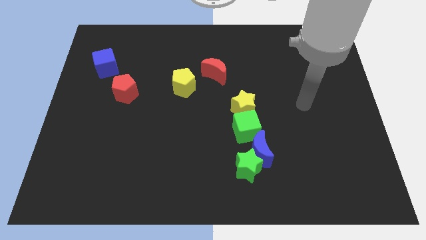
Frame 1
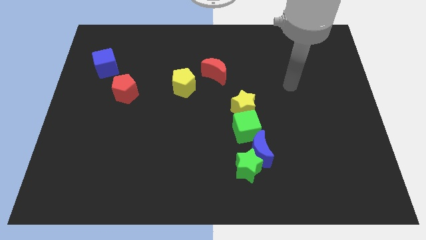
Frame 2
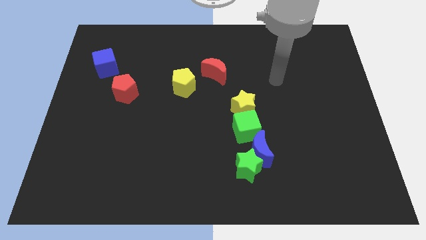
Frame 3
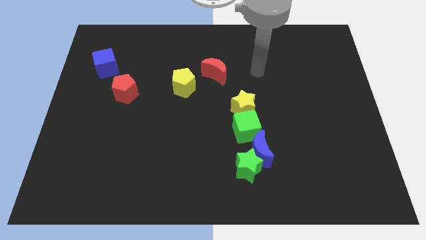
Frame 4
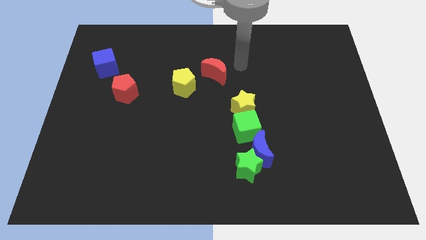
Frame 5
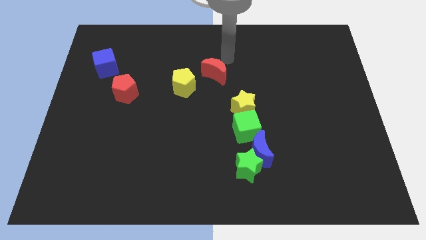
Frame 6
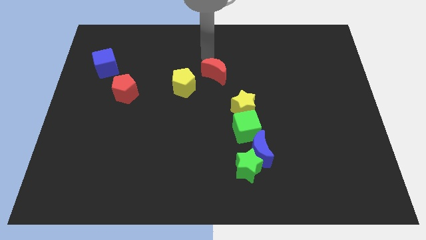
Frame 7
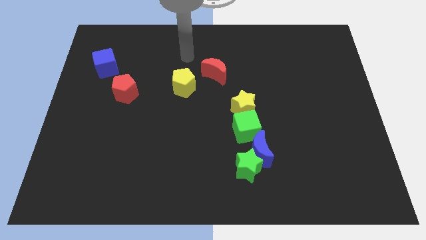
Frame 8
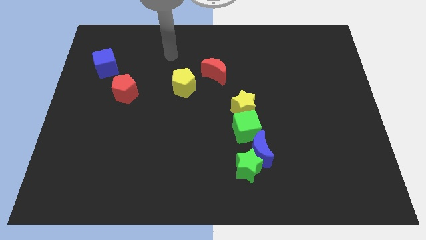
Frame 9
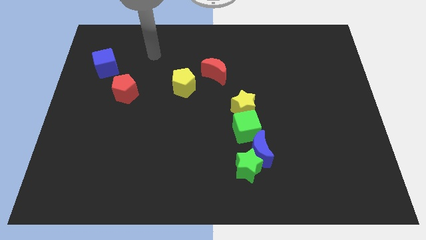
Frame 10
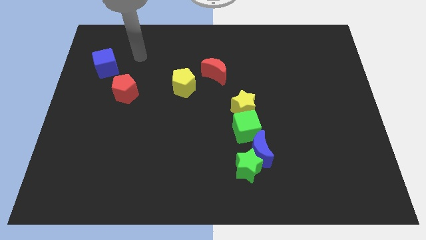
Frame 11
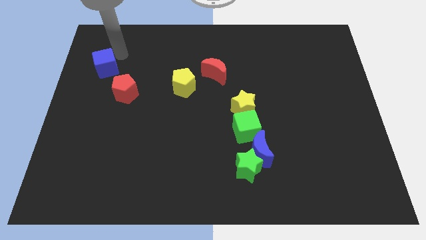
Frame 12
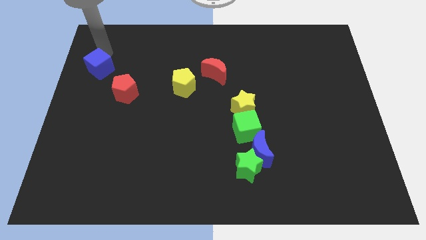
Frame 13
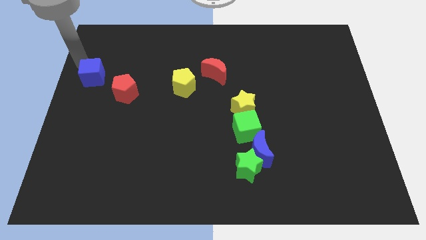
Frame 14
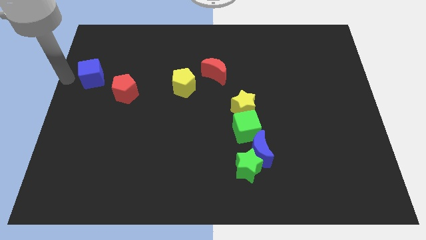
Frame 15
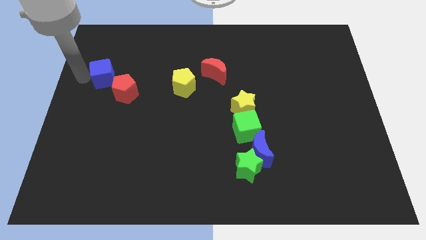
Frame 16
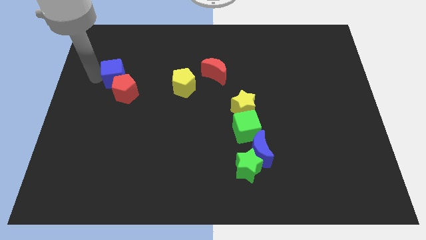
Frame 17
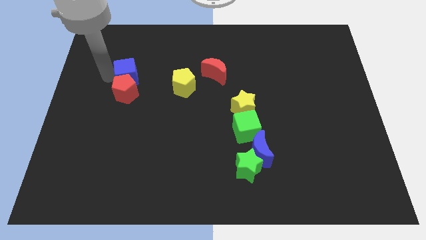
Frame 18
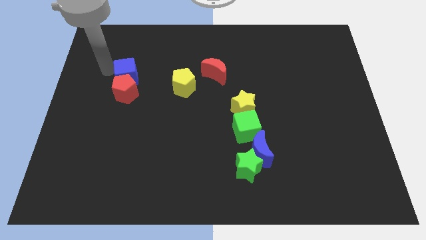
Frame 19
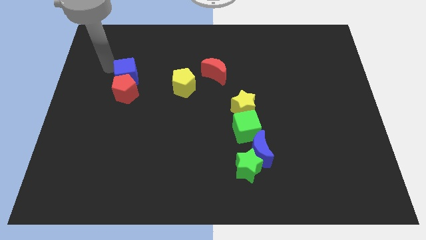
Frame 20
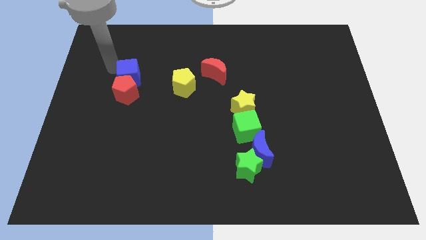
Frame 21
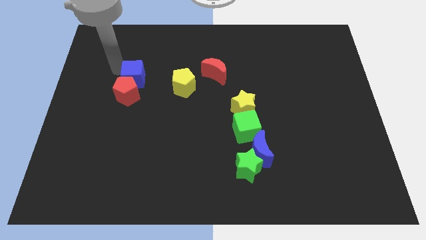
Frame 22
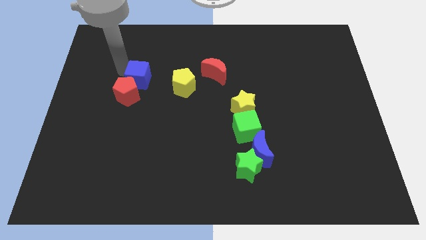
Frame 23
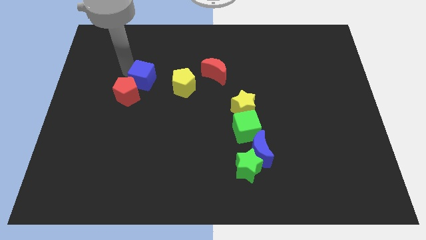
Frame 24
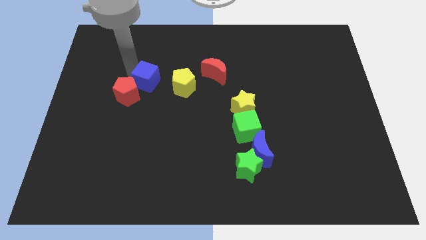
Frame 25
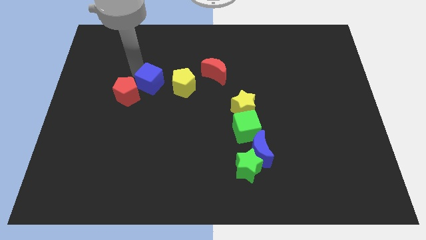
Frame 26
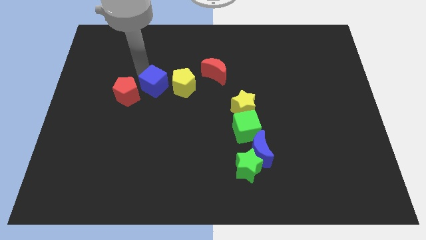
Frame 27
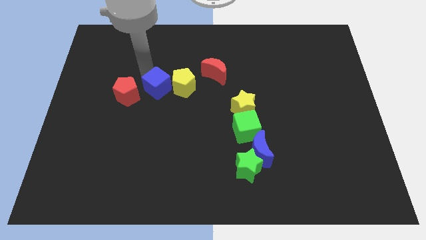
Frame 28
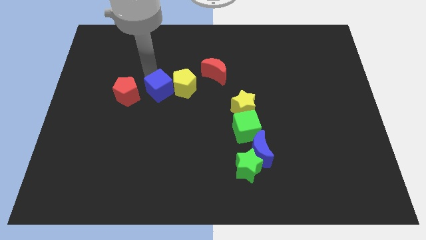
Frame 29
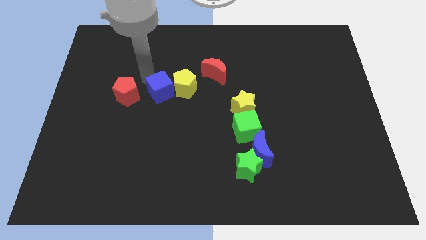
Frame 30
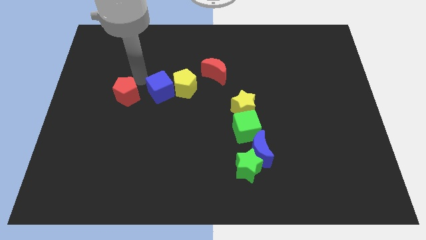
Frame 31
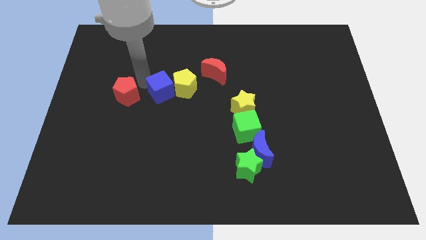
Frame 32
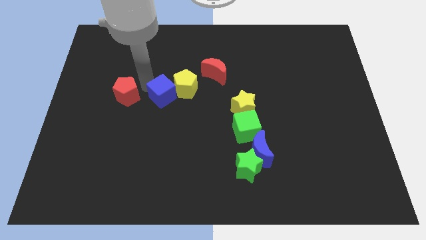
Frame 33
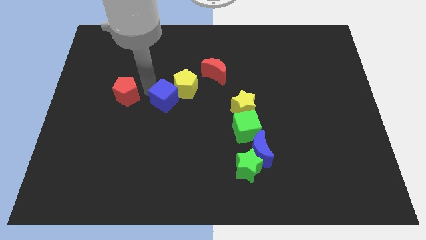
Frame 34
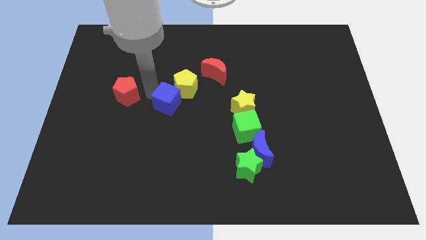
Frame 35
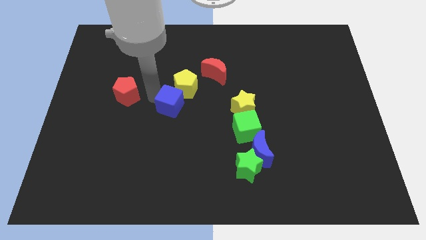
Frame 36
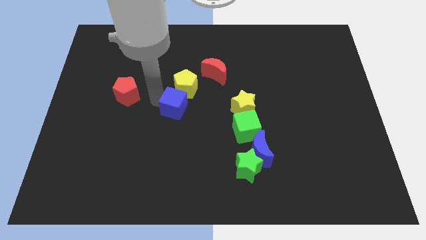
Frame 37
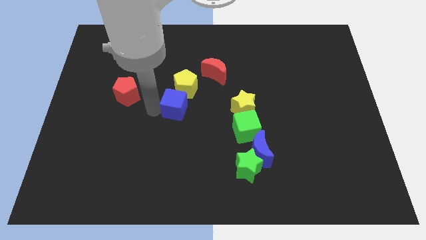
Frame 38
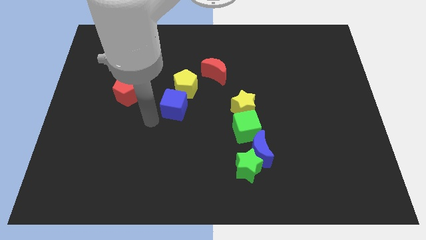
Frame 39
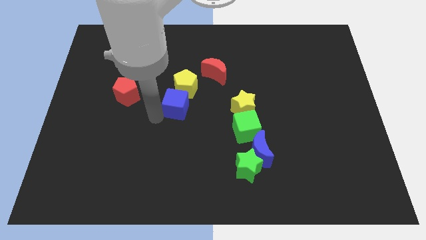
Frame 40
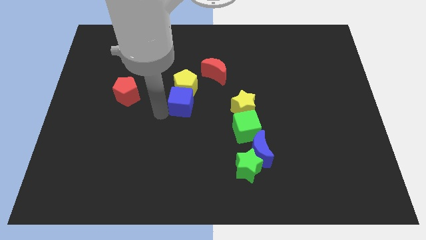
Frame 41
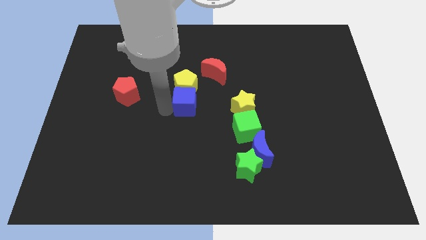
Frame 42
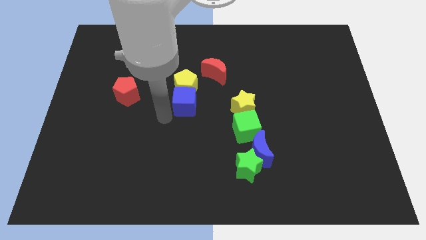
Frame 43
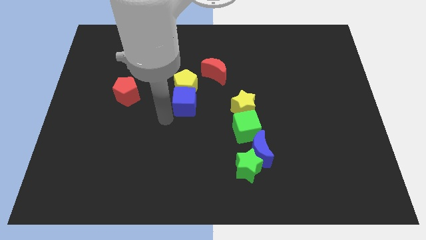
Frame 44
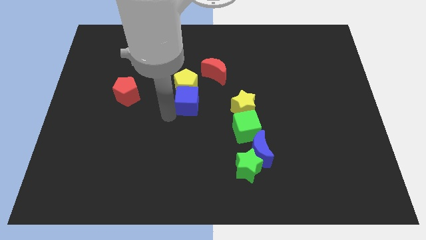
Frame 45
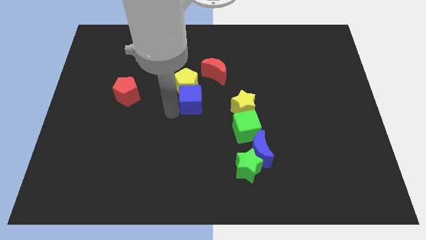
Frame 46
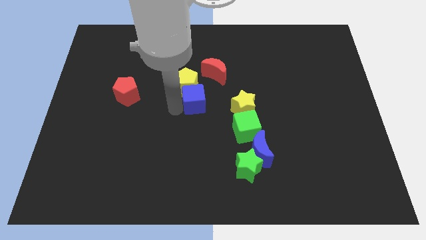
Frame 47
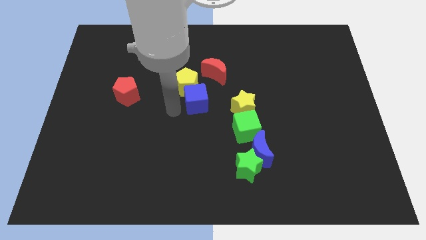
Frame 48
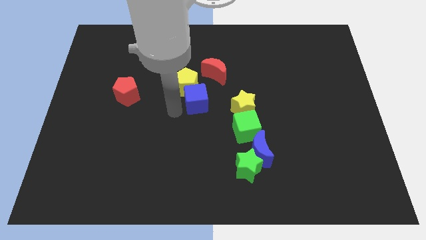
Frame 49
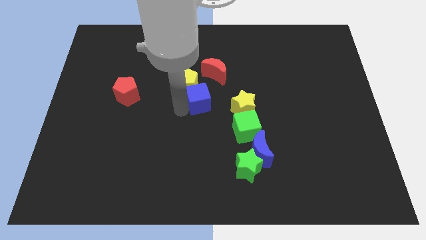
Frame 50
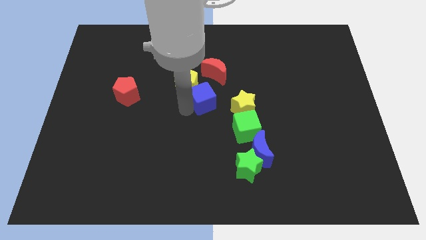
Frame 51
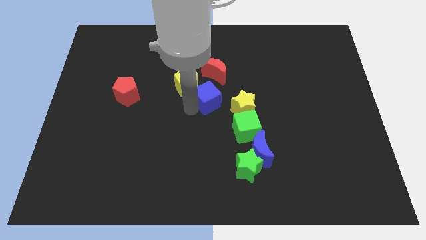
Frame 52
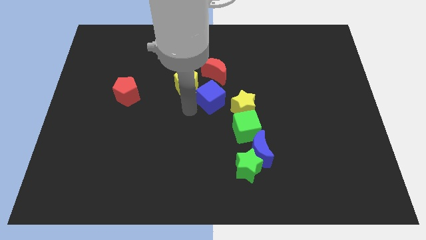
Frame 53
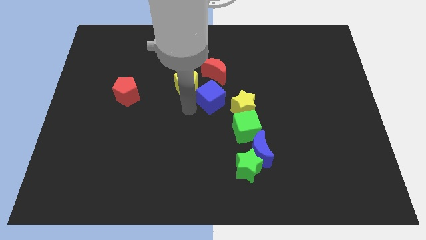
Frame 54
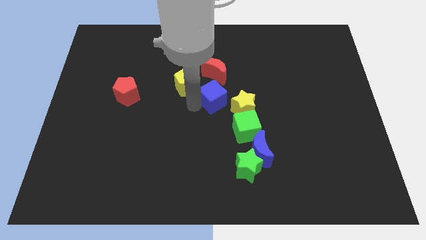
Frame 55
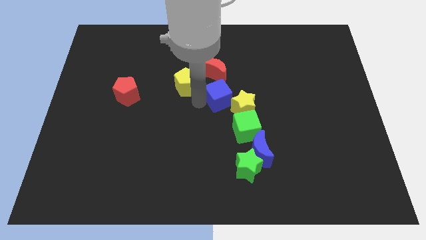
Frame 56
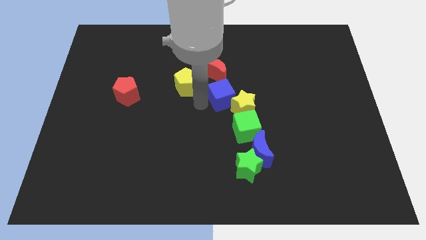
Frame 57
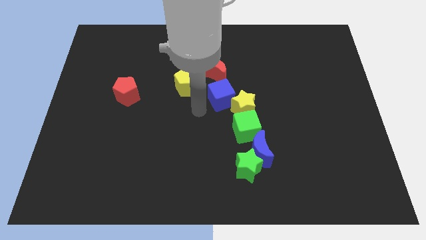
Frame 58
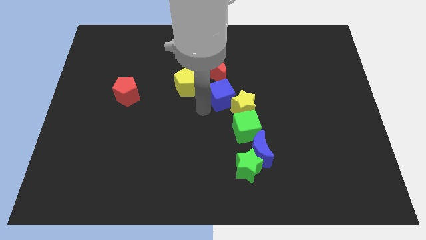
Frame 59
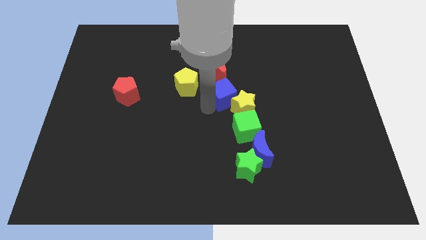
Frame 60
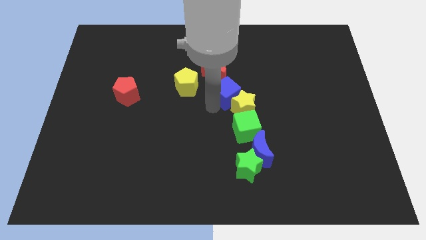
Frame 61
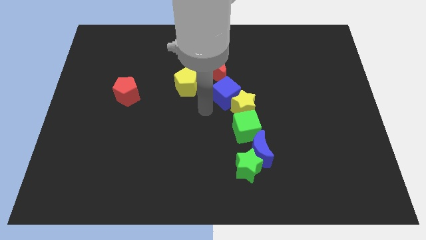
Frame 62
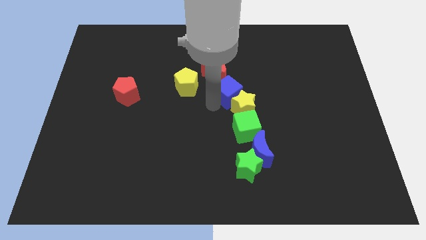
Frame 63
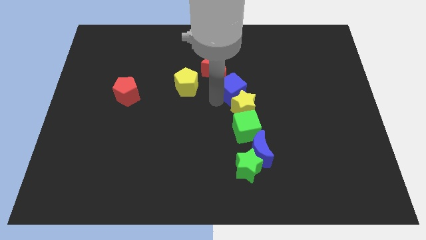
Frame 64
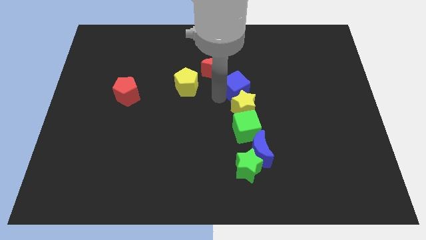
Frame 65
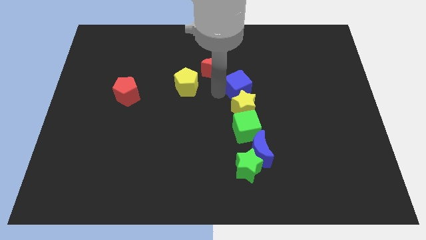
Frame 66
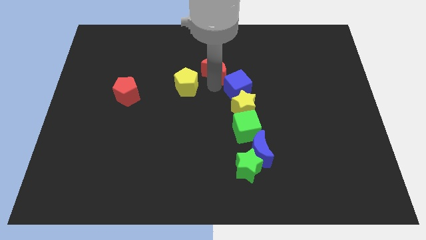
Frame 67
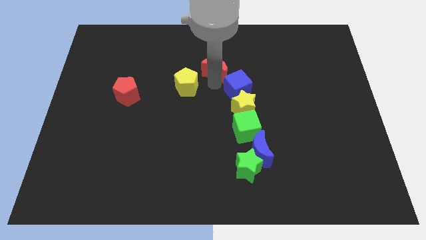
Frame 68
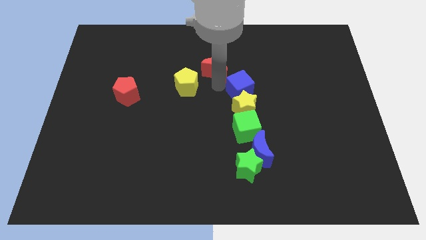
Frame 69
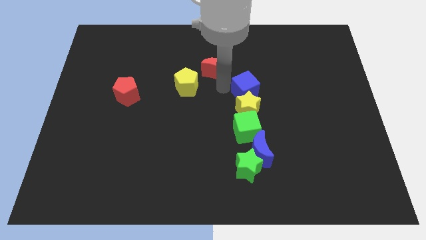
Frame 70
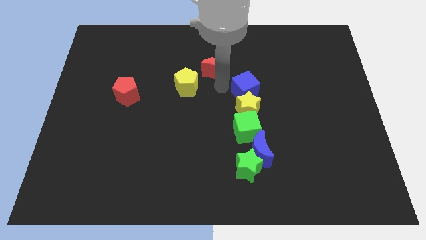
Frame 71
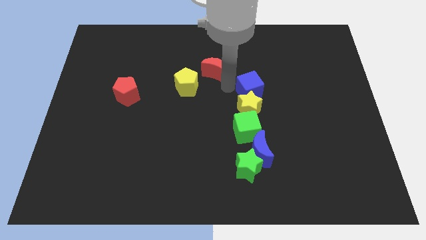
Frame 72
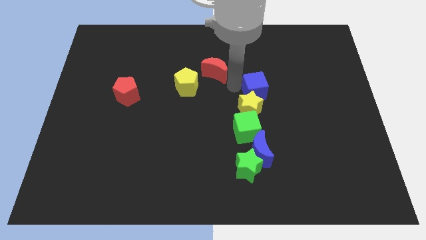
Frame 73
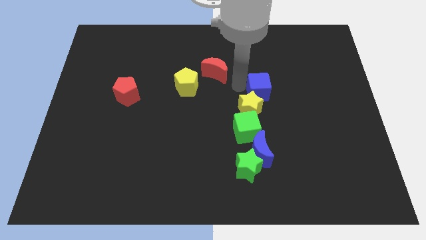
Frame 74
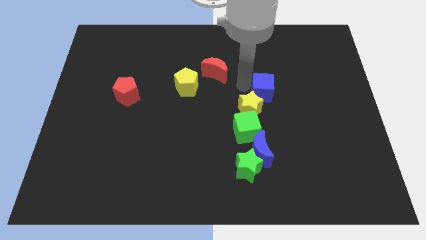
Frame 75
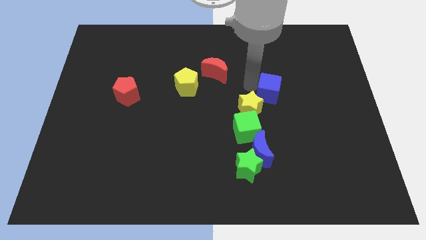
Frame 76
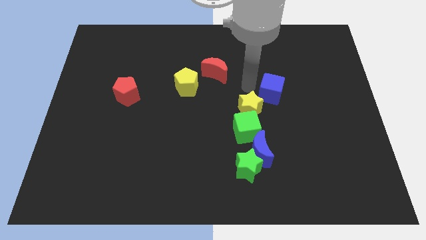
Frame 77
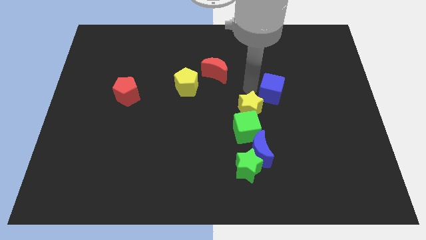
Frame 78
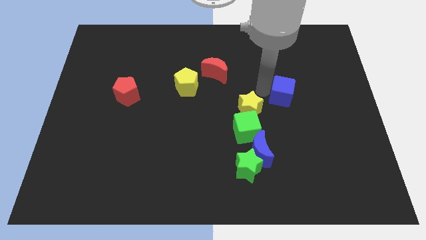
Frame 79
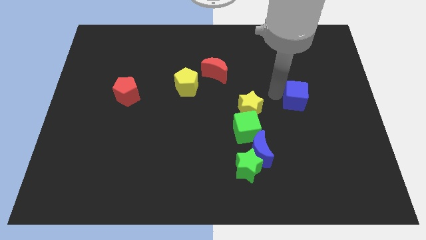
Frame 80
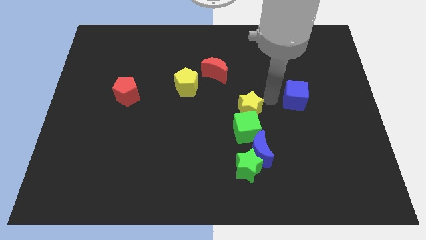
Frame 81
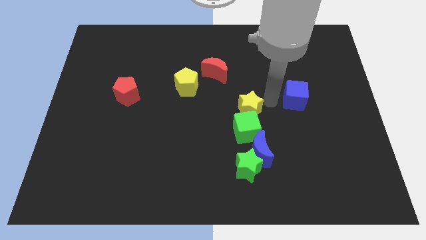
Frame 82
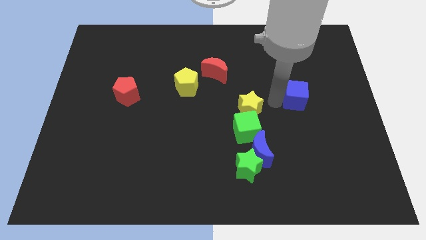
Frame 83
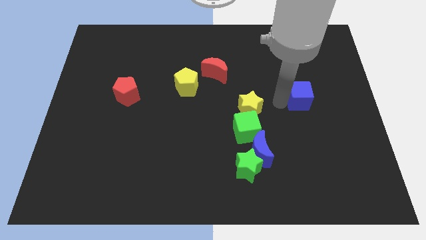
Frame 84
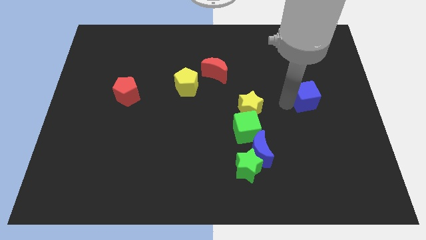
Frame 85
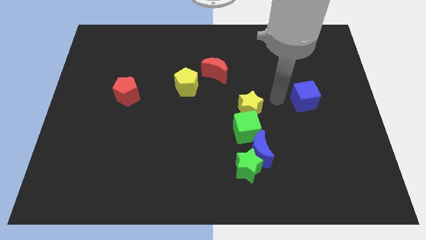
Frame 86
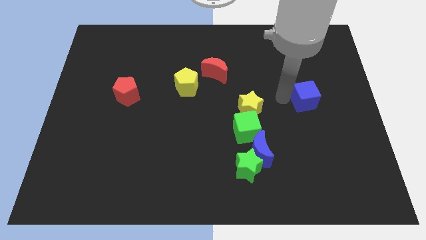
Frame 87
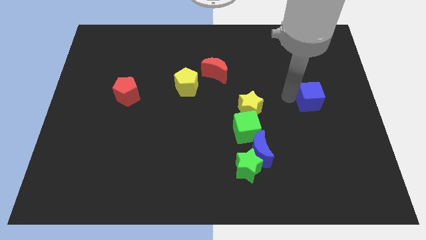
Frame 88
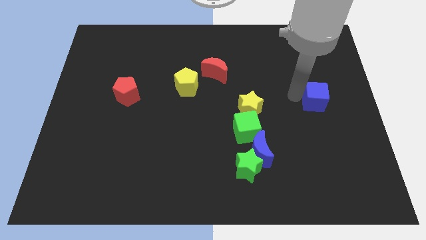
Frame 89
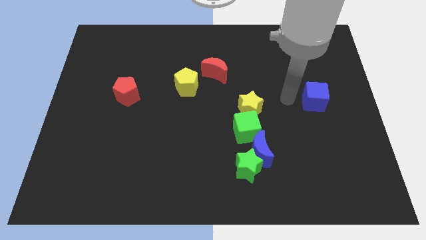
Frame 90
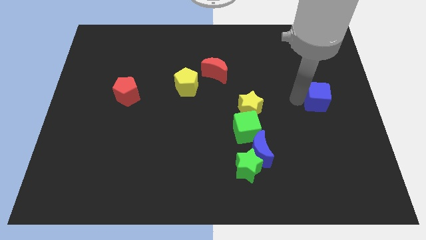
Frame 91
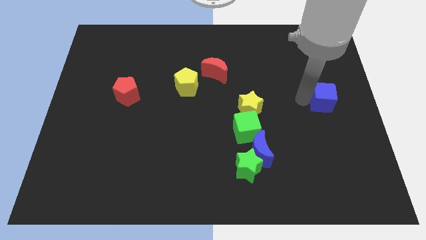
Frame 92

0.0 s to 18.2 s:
slide the blue cube to the right side
